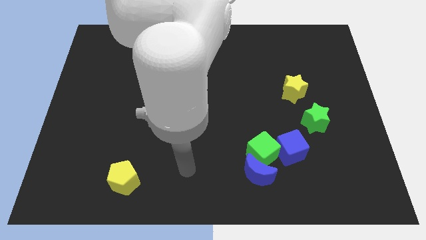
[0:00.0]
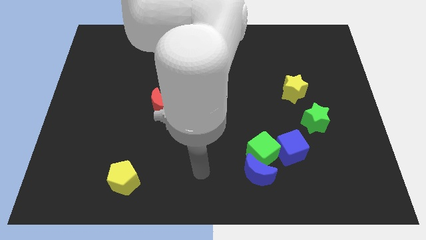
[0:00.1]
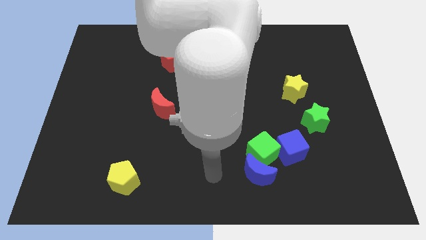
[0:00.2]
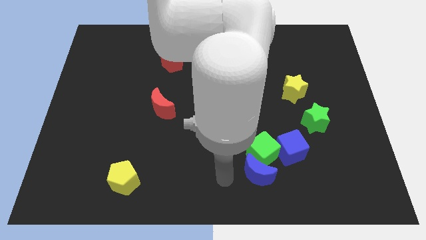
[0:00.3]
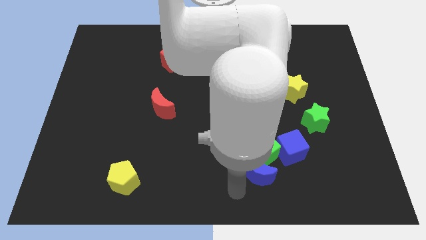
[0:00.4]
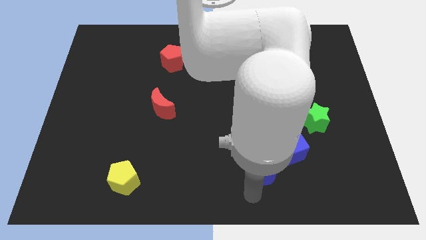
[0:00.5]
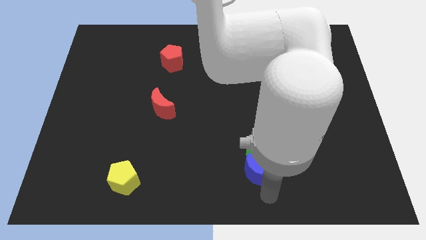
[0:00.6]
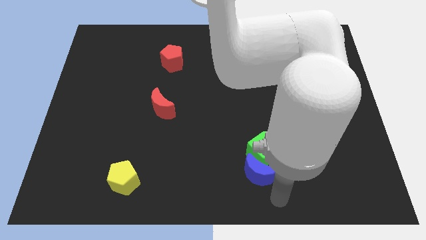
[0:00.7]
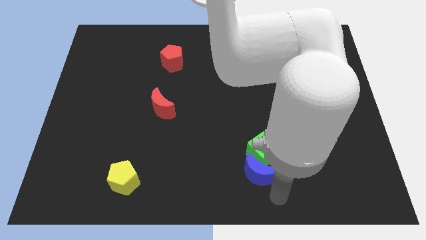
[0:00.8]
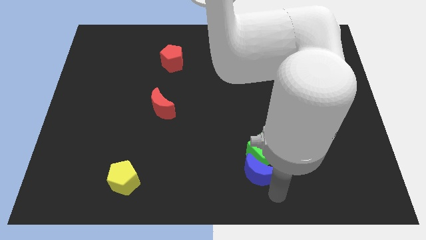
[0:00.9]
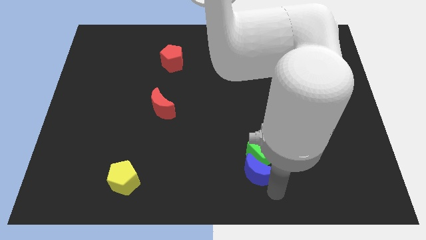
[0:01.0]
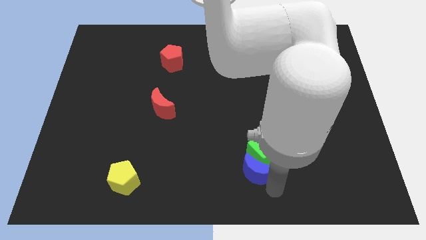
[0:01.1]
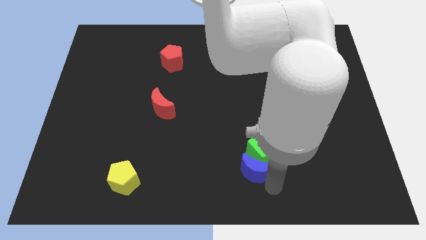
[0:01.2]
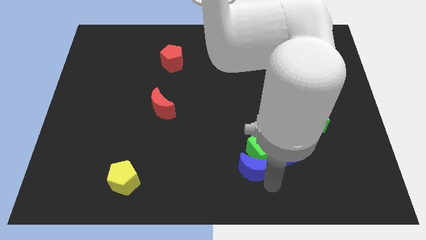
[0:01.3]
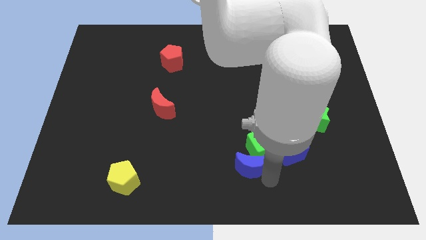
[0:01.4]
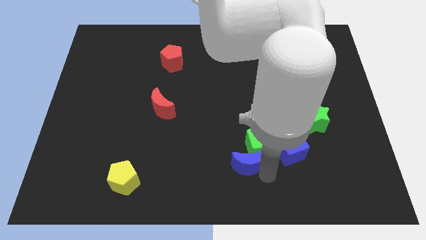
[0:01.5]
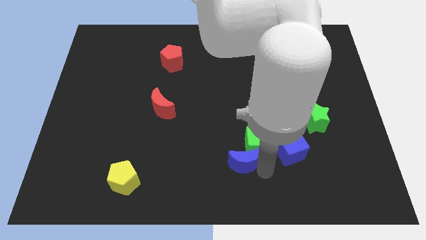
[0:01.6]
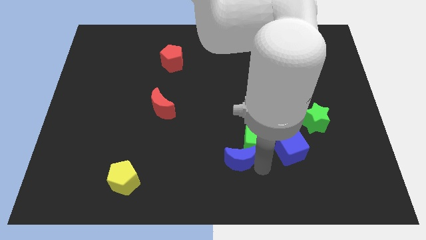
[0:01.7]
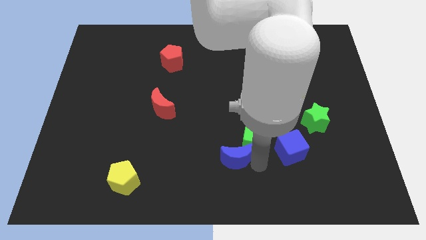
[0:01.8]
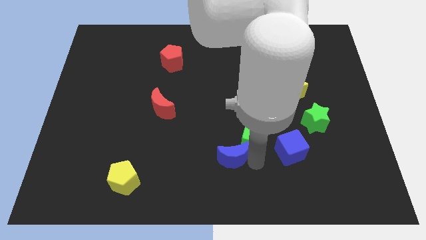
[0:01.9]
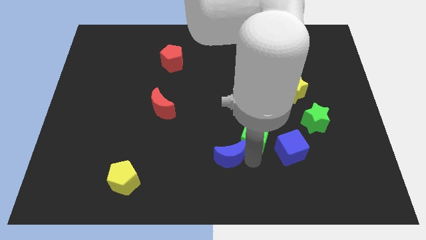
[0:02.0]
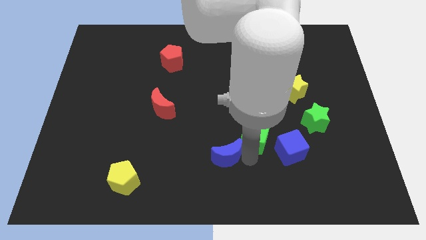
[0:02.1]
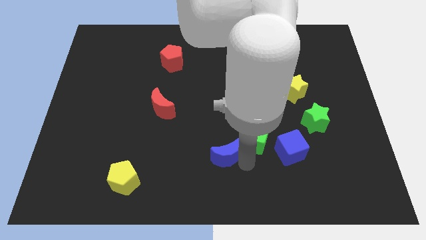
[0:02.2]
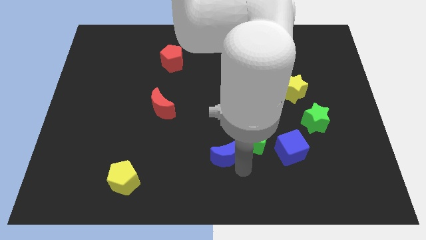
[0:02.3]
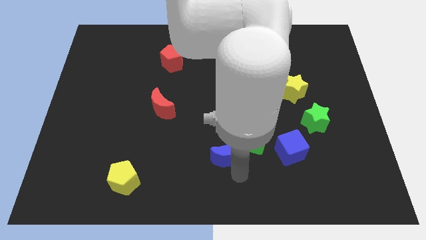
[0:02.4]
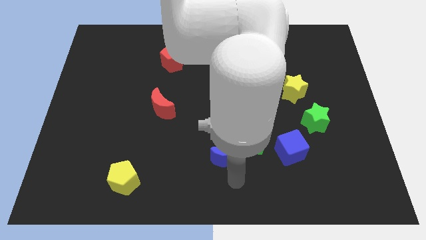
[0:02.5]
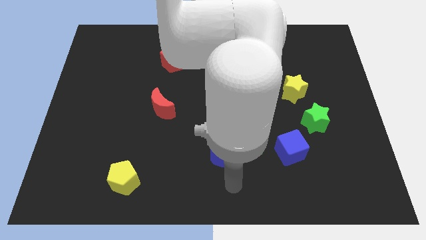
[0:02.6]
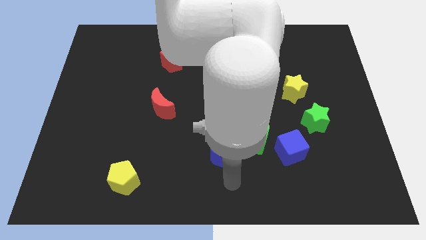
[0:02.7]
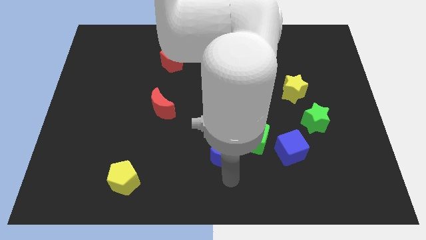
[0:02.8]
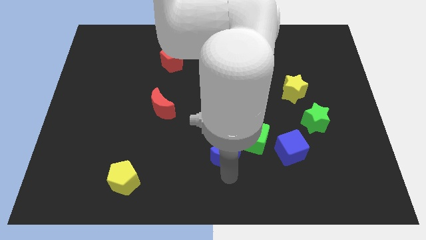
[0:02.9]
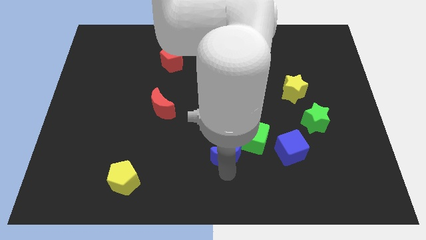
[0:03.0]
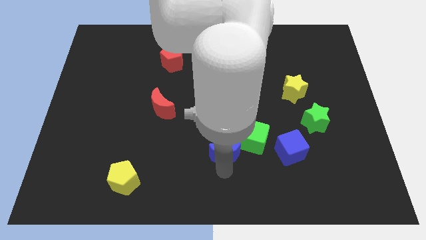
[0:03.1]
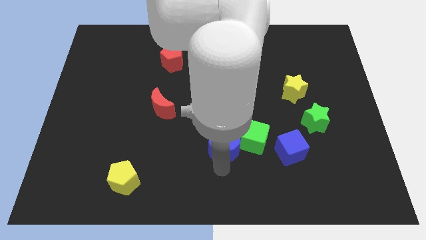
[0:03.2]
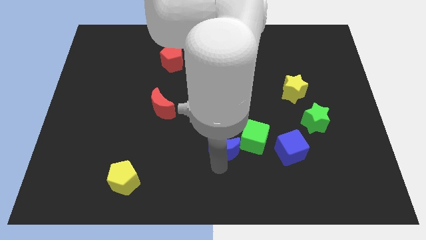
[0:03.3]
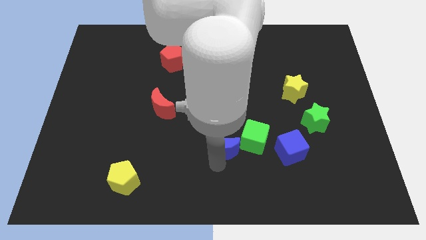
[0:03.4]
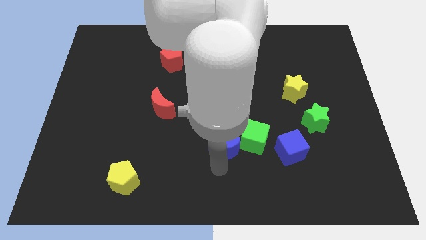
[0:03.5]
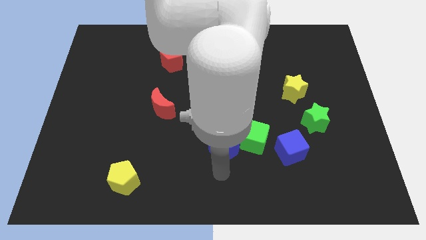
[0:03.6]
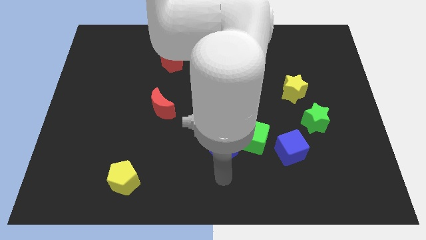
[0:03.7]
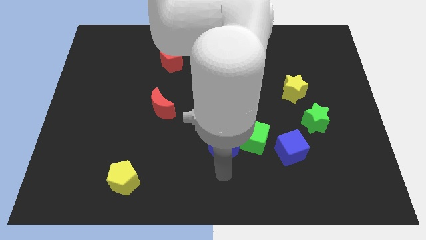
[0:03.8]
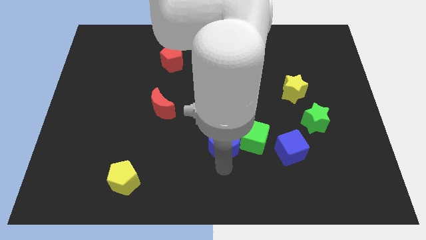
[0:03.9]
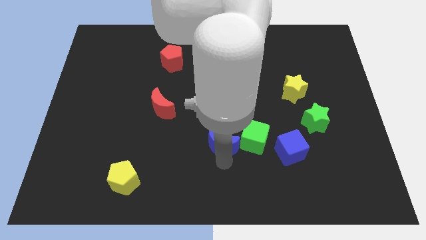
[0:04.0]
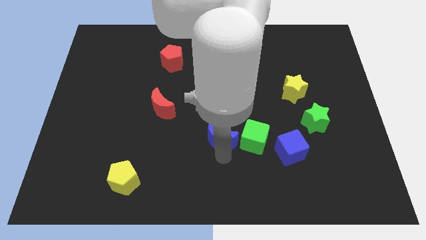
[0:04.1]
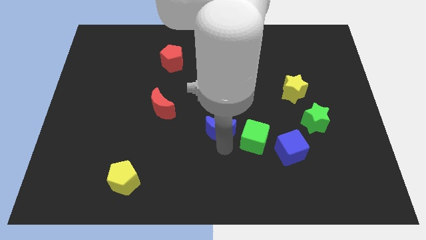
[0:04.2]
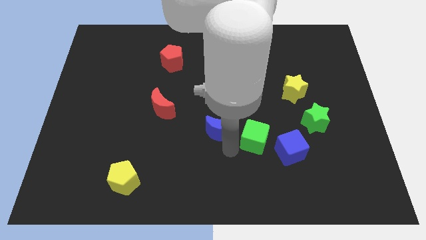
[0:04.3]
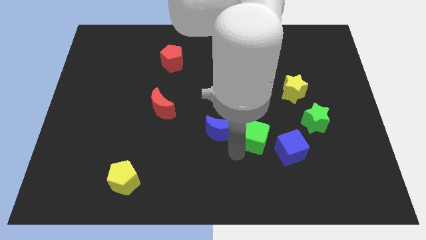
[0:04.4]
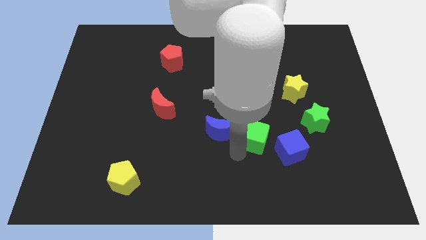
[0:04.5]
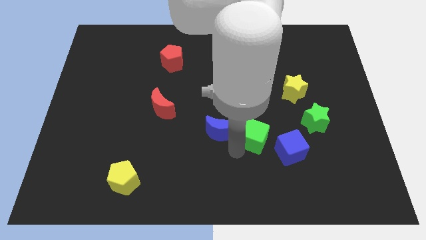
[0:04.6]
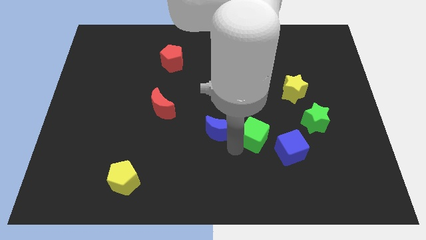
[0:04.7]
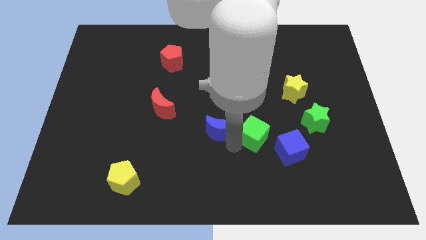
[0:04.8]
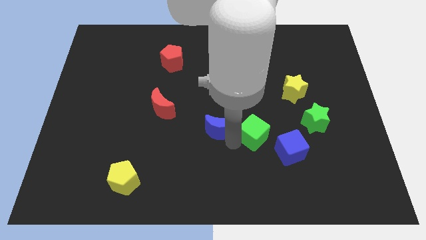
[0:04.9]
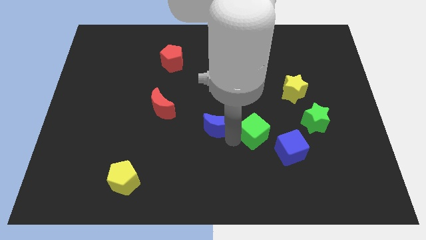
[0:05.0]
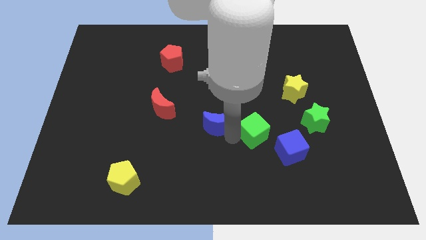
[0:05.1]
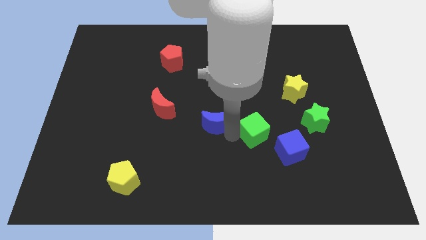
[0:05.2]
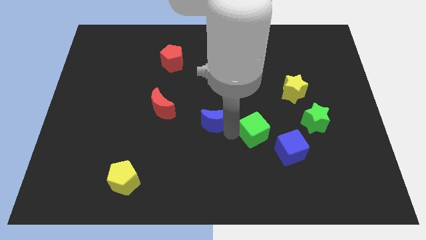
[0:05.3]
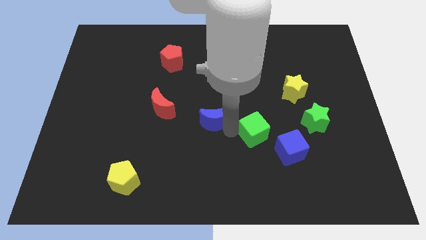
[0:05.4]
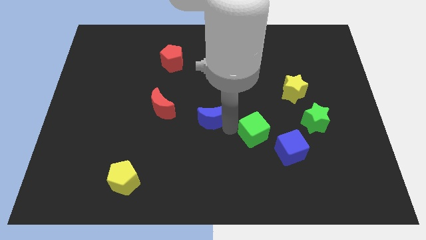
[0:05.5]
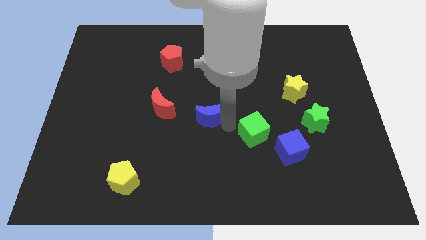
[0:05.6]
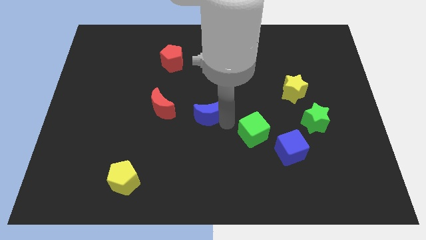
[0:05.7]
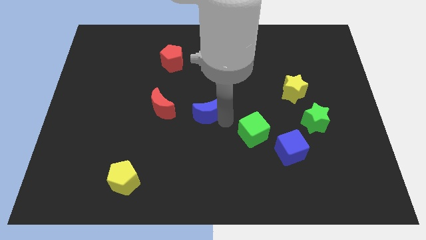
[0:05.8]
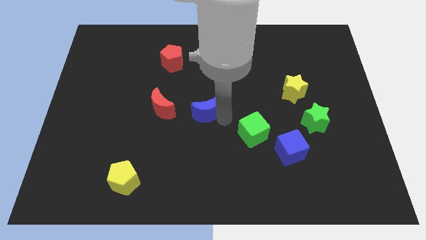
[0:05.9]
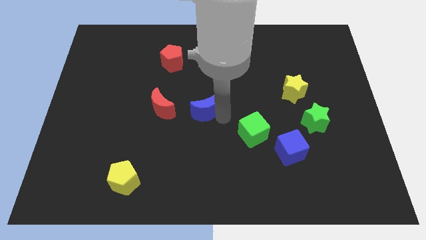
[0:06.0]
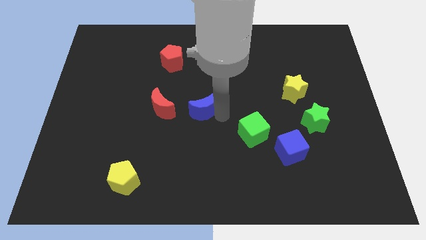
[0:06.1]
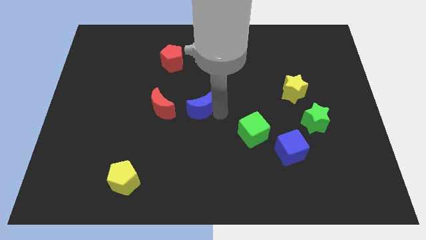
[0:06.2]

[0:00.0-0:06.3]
slide the blue moon diagonally up and to the left

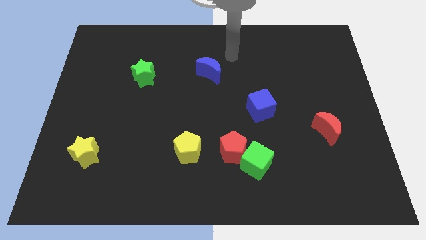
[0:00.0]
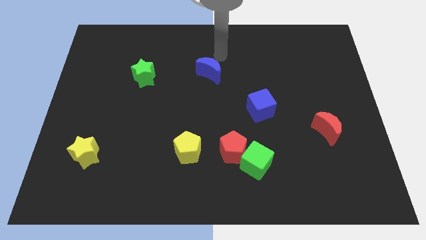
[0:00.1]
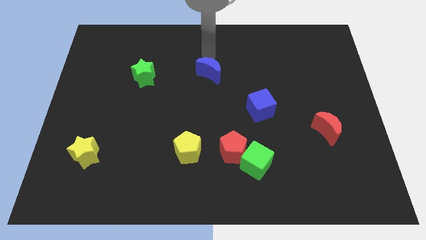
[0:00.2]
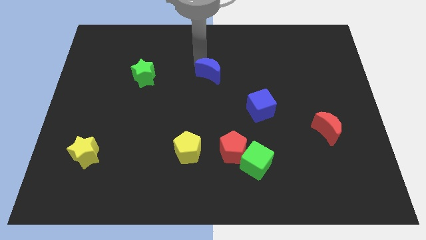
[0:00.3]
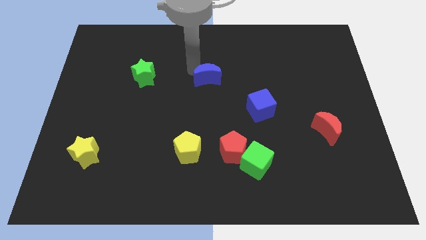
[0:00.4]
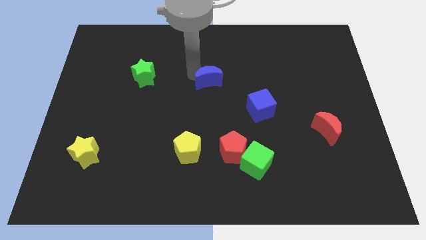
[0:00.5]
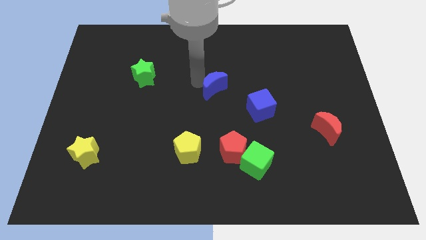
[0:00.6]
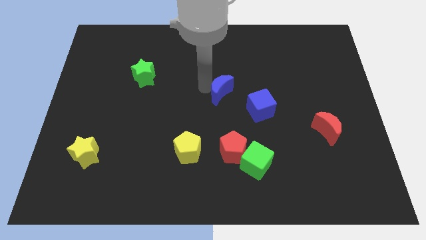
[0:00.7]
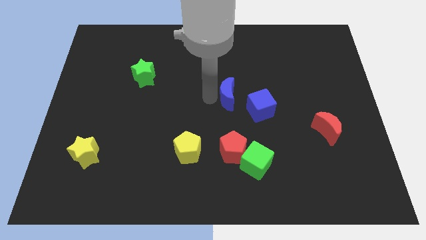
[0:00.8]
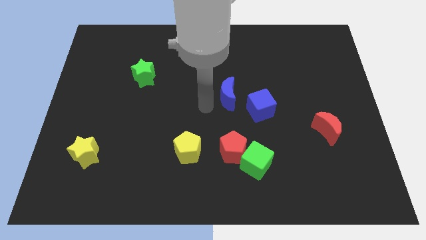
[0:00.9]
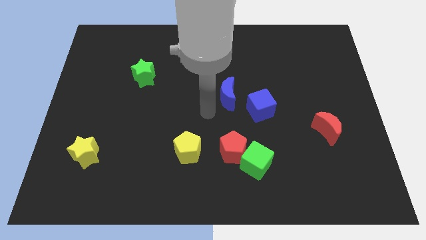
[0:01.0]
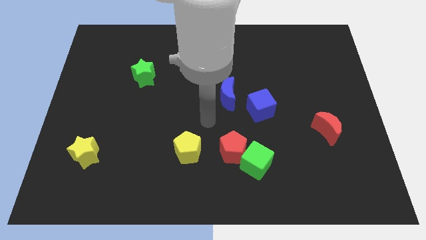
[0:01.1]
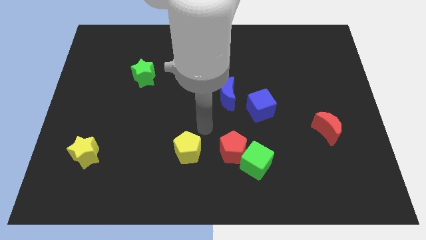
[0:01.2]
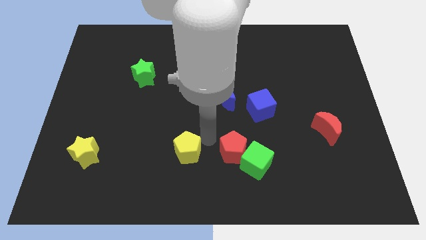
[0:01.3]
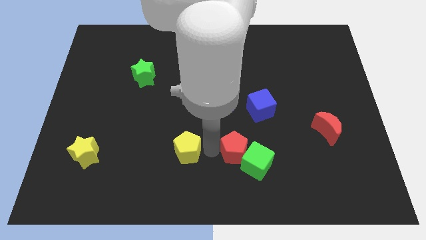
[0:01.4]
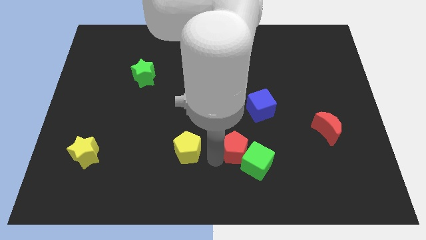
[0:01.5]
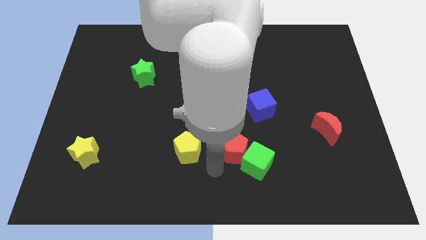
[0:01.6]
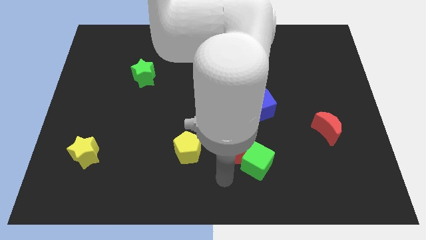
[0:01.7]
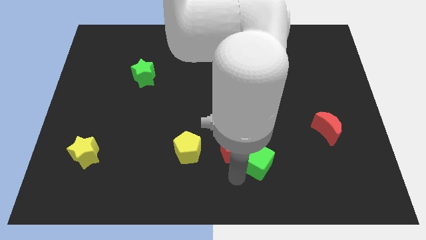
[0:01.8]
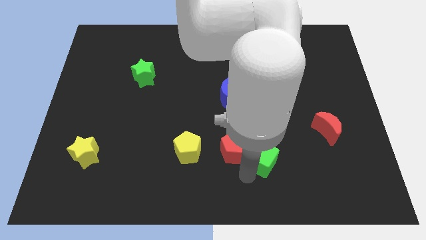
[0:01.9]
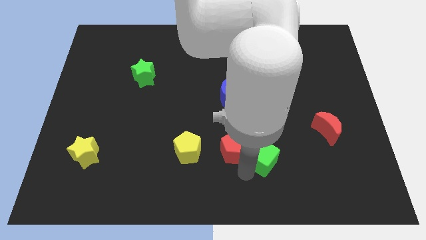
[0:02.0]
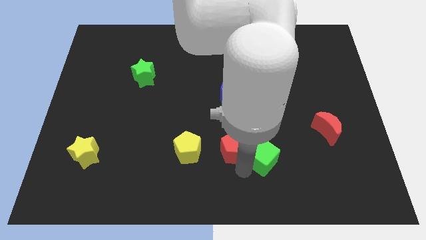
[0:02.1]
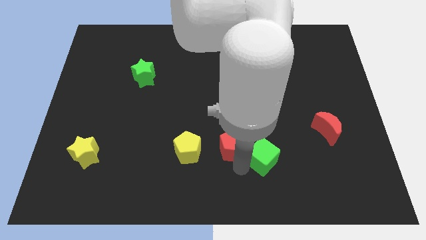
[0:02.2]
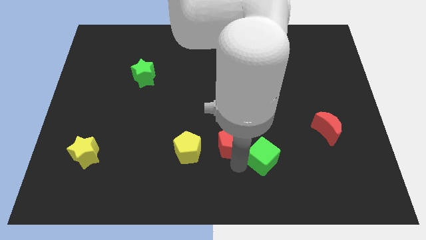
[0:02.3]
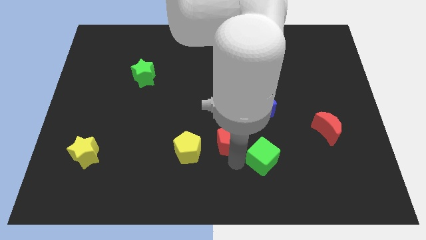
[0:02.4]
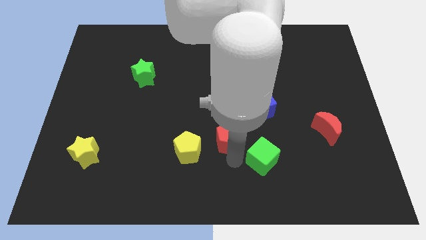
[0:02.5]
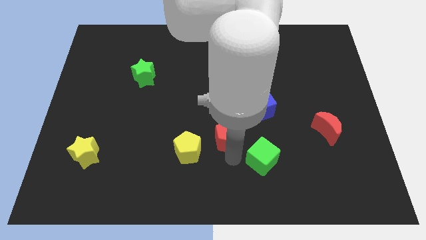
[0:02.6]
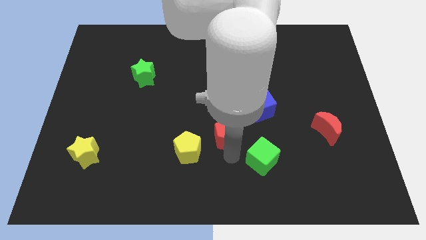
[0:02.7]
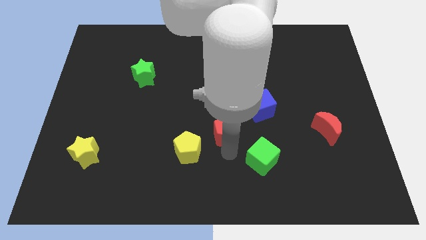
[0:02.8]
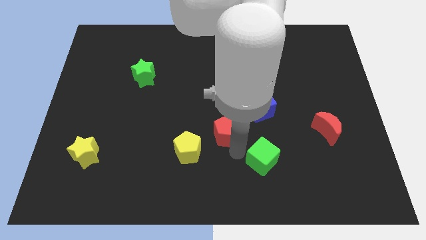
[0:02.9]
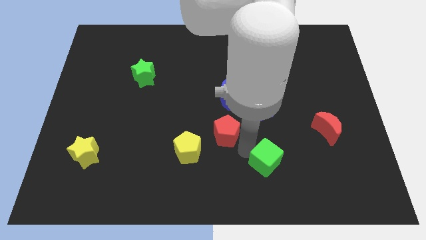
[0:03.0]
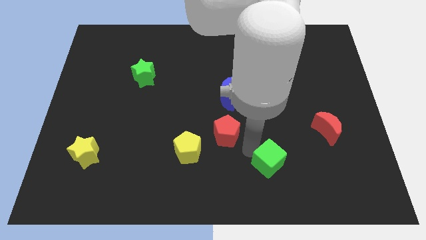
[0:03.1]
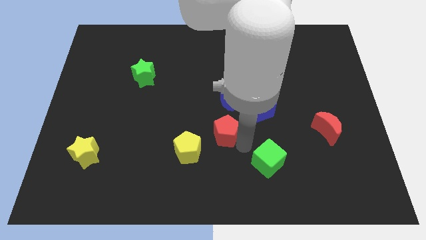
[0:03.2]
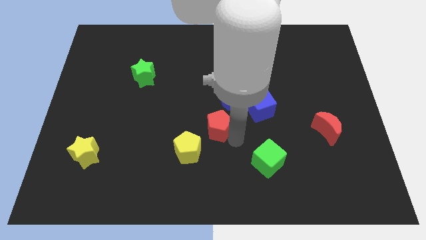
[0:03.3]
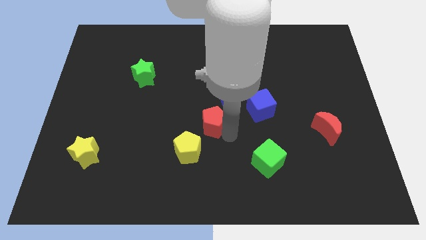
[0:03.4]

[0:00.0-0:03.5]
push the red pentagon diagonally up and to the left a little
